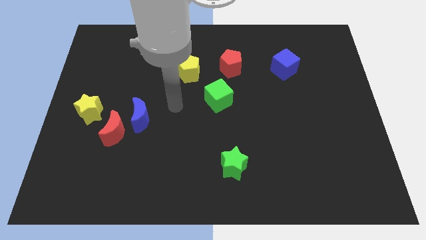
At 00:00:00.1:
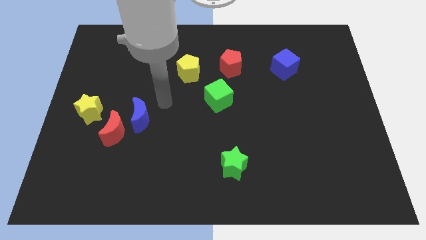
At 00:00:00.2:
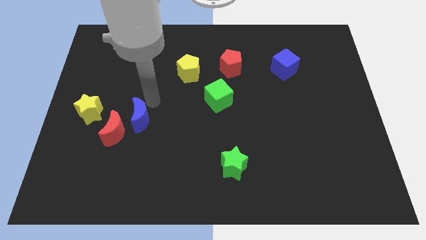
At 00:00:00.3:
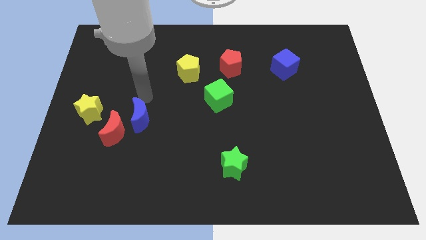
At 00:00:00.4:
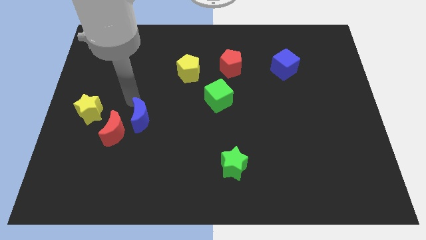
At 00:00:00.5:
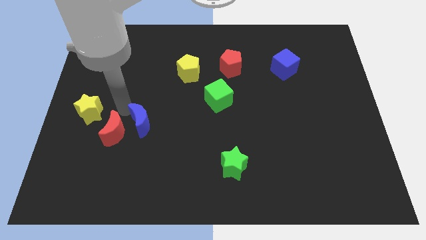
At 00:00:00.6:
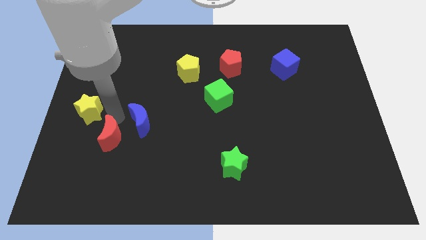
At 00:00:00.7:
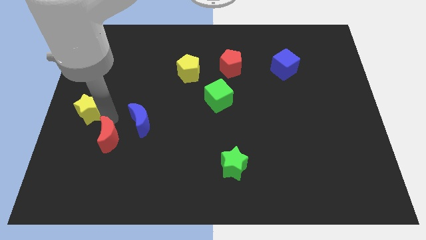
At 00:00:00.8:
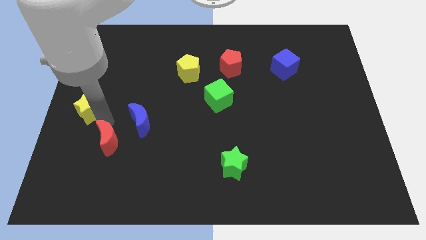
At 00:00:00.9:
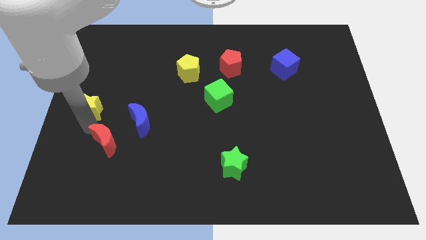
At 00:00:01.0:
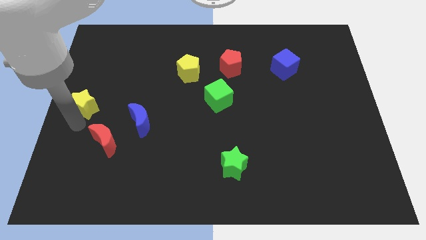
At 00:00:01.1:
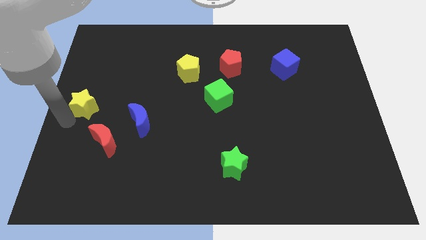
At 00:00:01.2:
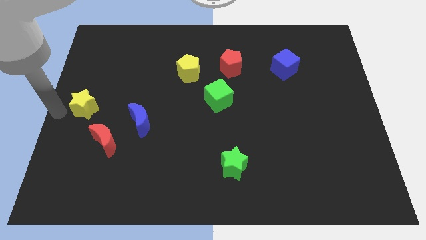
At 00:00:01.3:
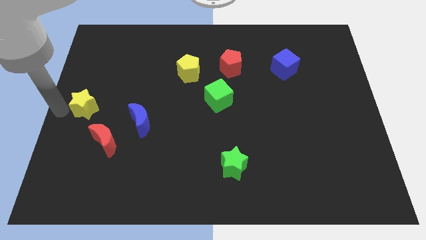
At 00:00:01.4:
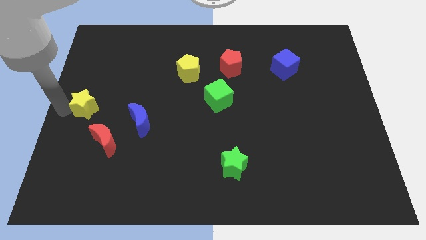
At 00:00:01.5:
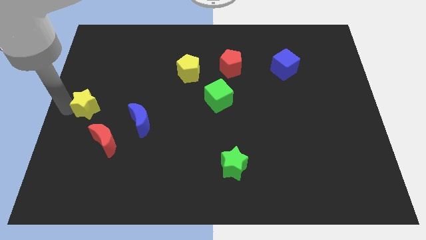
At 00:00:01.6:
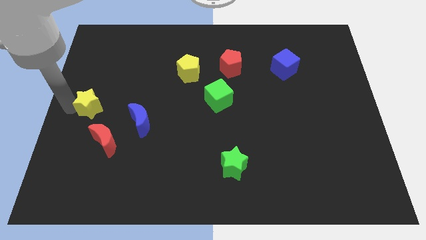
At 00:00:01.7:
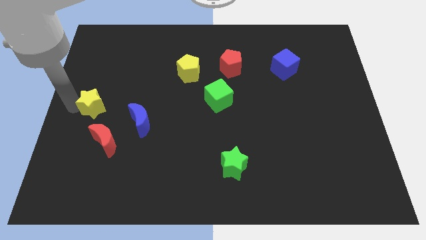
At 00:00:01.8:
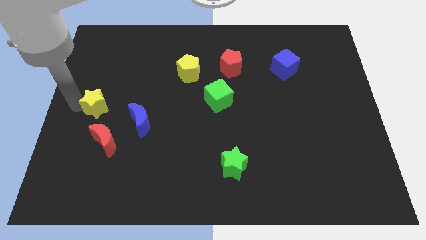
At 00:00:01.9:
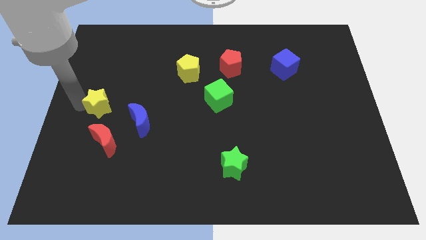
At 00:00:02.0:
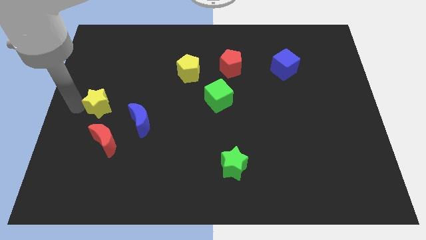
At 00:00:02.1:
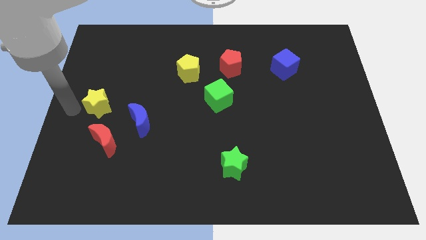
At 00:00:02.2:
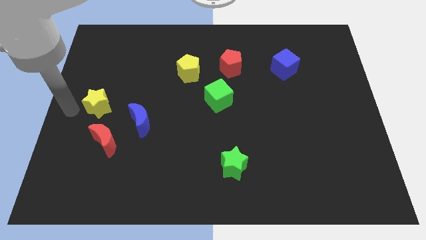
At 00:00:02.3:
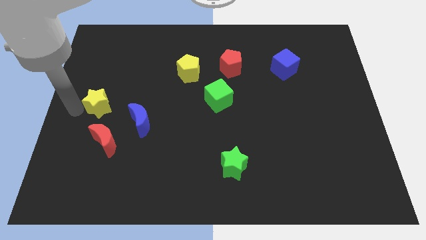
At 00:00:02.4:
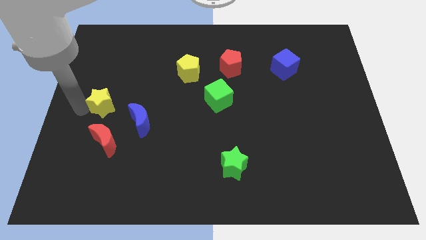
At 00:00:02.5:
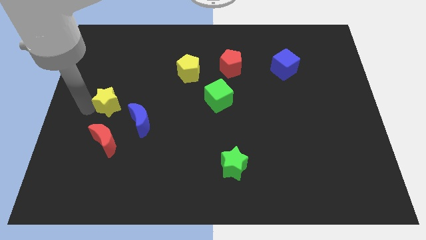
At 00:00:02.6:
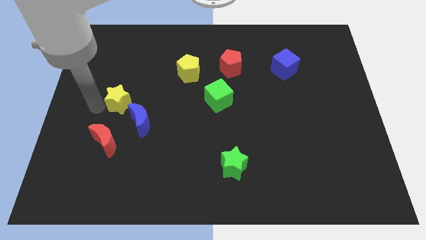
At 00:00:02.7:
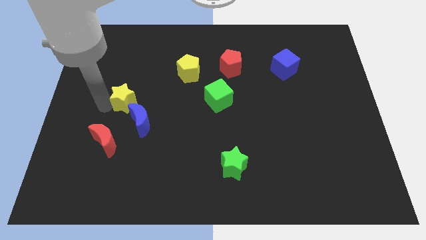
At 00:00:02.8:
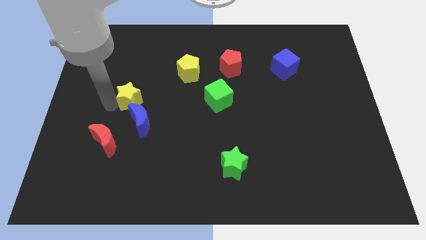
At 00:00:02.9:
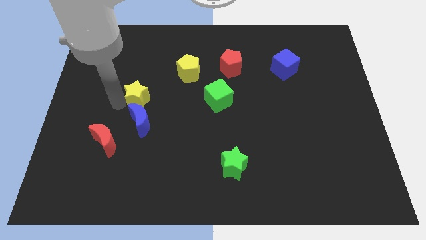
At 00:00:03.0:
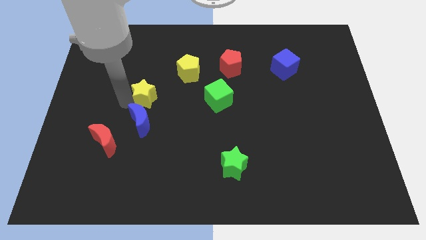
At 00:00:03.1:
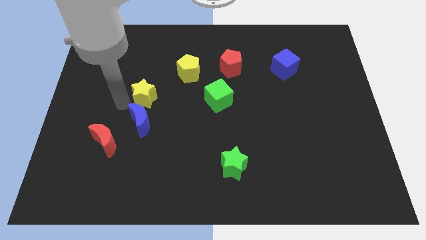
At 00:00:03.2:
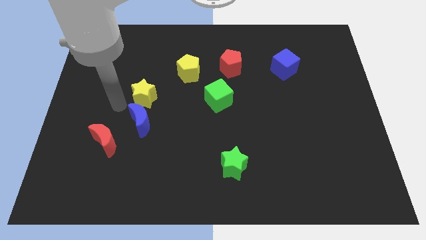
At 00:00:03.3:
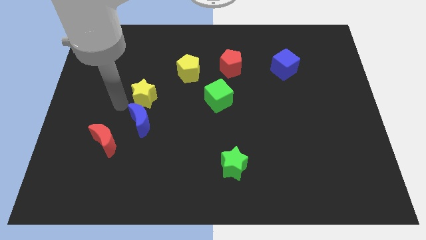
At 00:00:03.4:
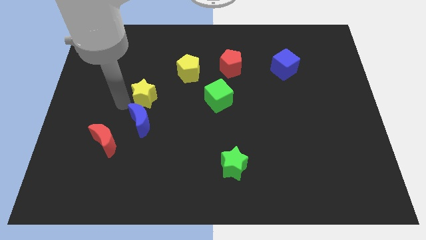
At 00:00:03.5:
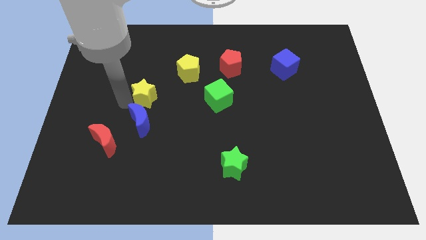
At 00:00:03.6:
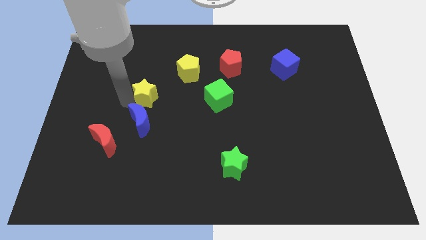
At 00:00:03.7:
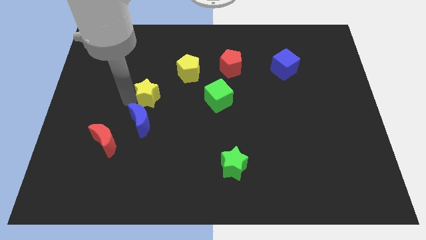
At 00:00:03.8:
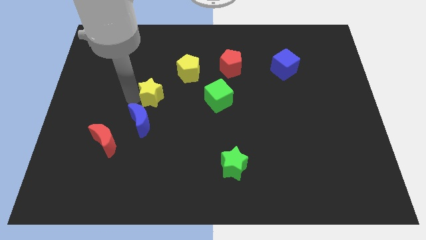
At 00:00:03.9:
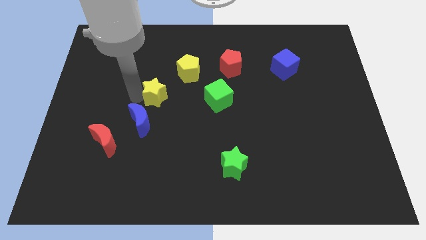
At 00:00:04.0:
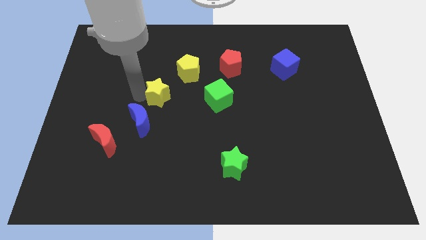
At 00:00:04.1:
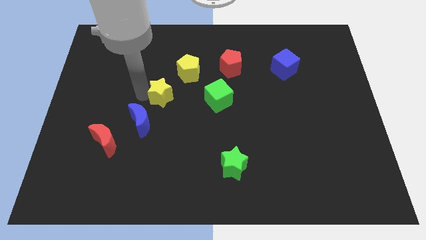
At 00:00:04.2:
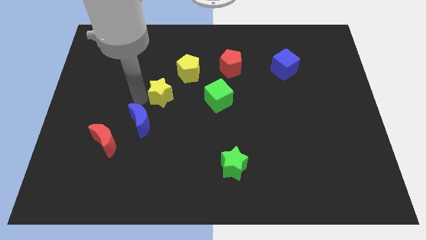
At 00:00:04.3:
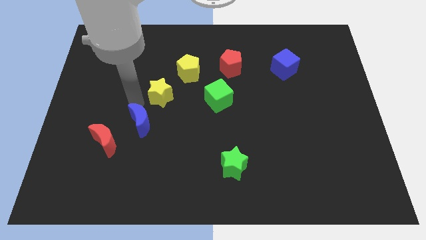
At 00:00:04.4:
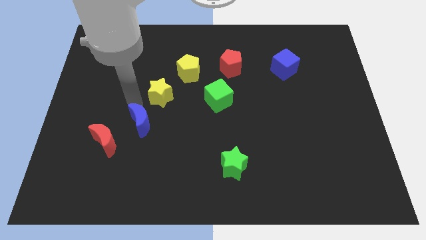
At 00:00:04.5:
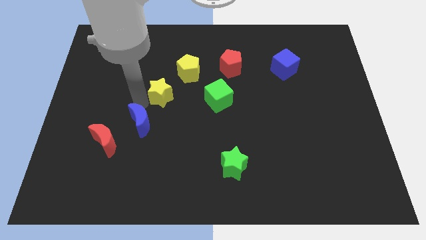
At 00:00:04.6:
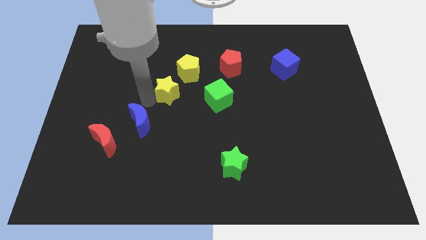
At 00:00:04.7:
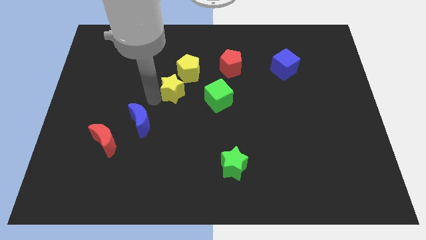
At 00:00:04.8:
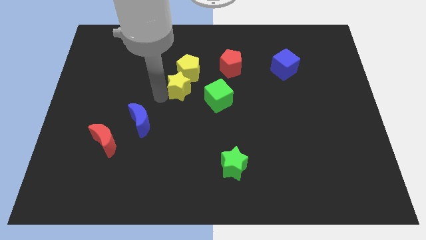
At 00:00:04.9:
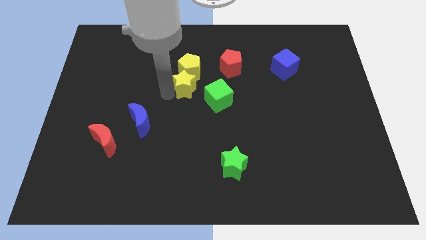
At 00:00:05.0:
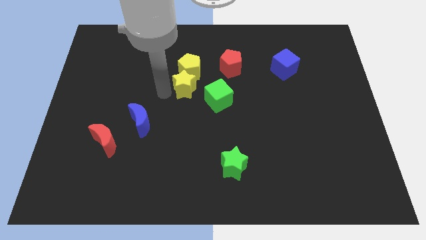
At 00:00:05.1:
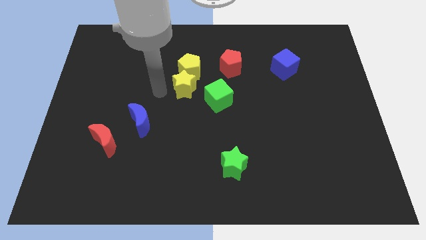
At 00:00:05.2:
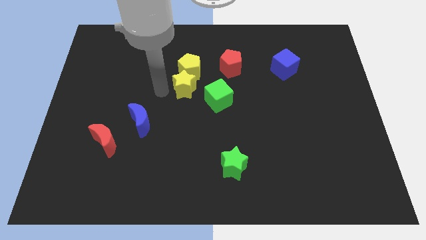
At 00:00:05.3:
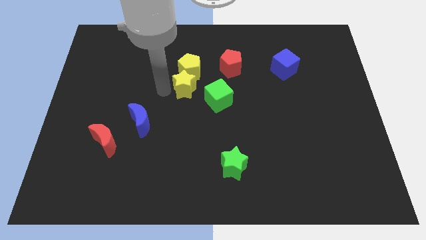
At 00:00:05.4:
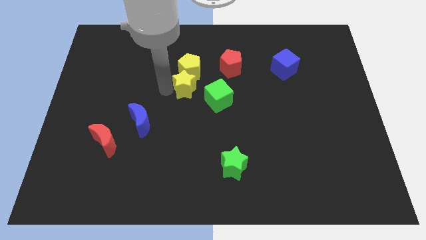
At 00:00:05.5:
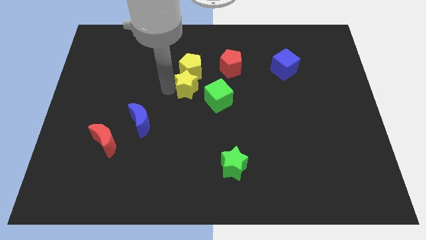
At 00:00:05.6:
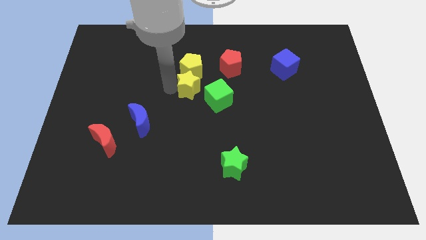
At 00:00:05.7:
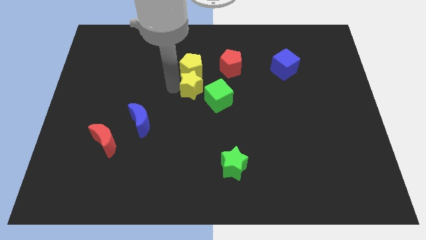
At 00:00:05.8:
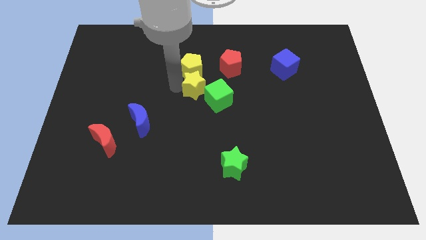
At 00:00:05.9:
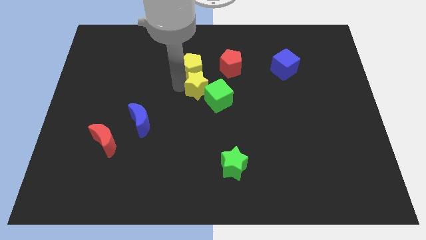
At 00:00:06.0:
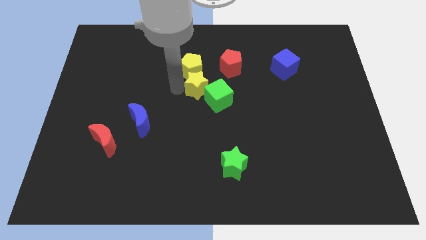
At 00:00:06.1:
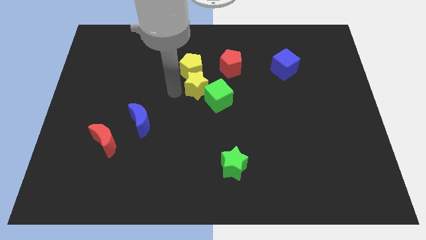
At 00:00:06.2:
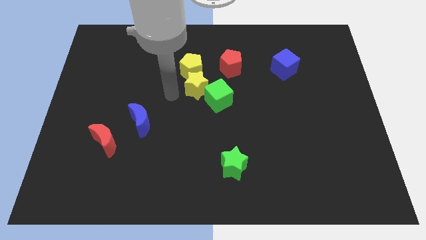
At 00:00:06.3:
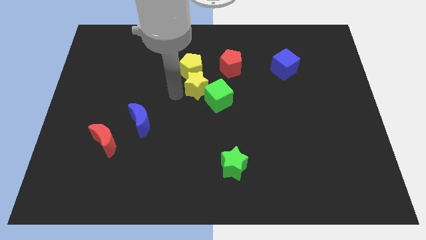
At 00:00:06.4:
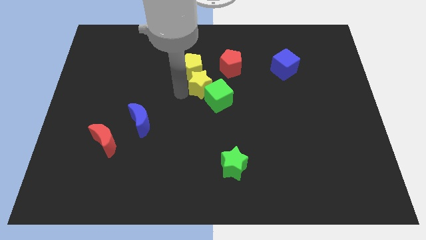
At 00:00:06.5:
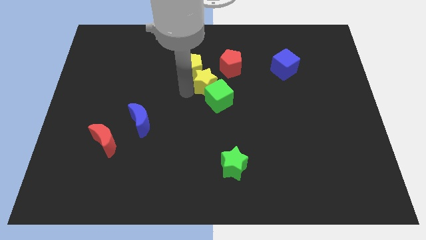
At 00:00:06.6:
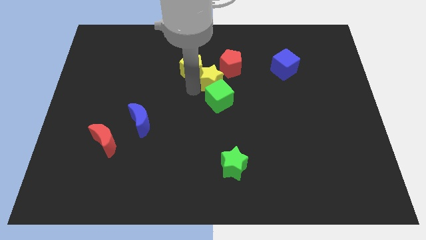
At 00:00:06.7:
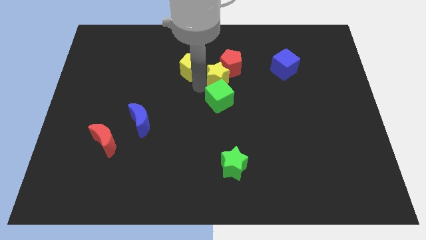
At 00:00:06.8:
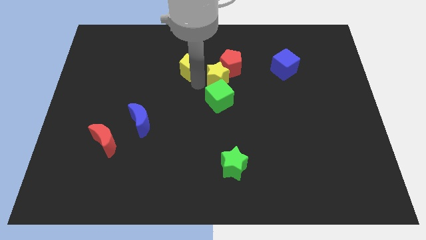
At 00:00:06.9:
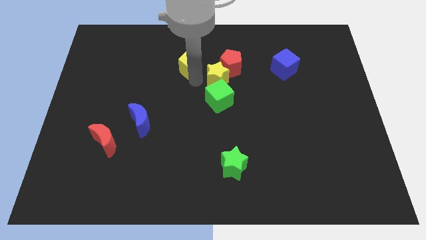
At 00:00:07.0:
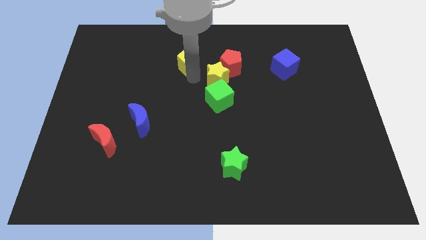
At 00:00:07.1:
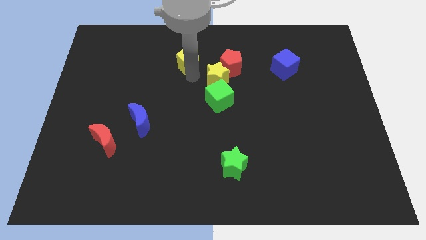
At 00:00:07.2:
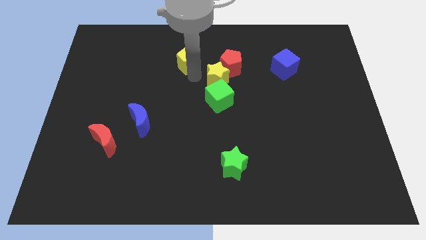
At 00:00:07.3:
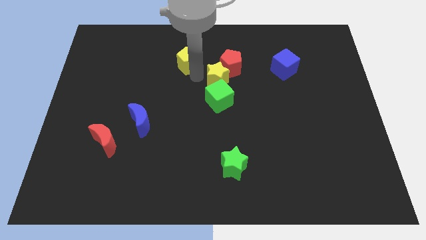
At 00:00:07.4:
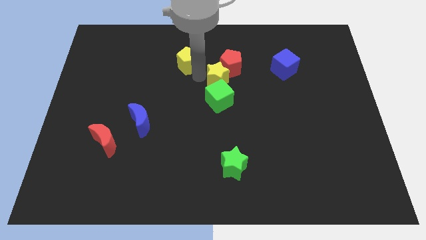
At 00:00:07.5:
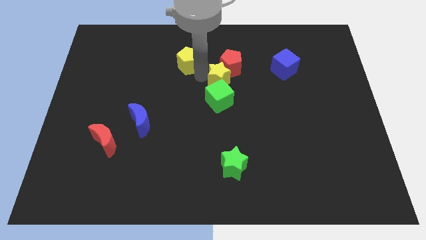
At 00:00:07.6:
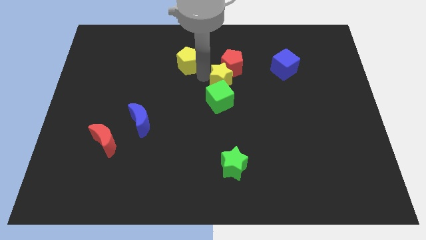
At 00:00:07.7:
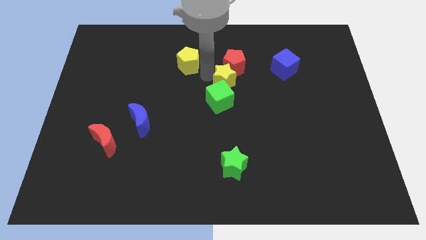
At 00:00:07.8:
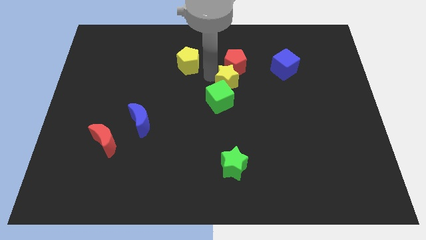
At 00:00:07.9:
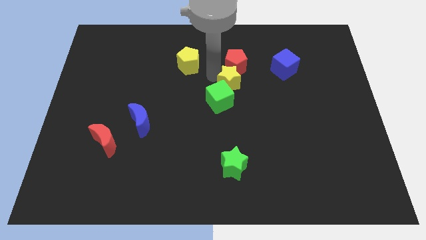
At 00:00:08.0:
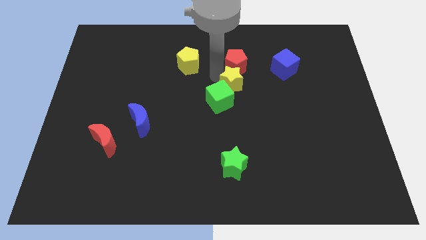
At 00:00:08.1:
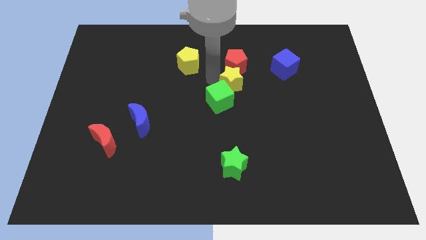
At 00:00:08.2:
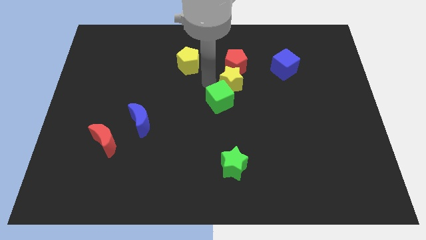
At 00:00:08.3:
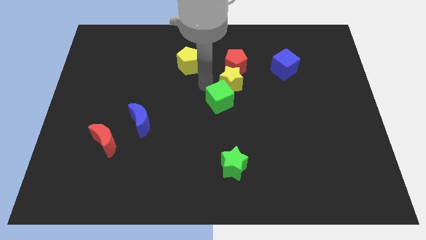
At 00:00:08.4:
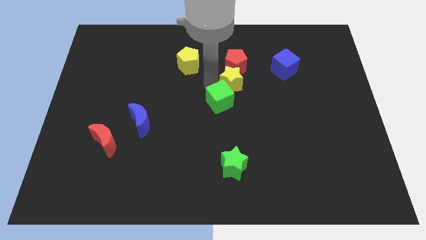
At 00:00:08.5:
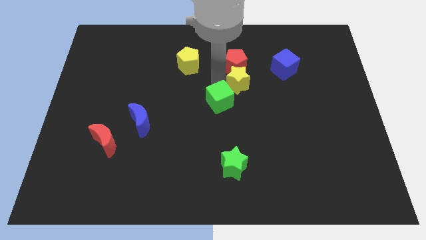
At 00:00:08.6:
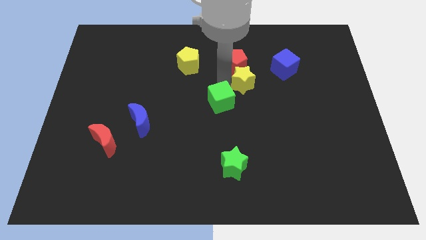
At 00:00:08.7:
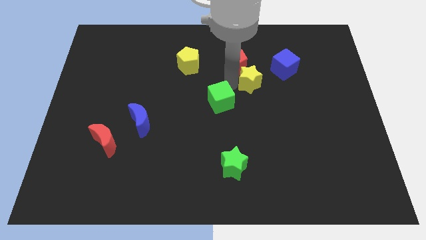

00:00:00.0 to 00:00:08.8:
move the yellow star to the bottom left of the blue cube
